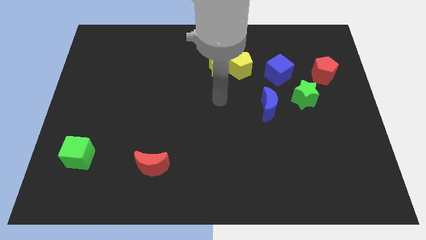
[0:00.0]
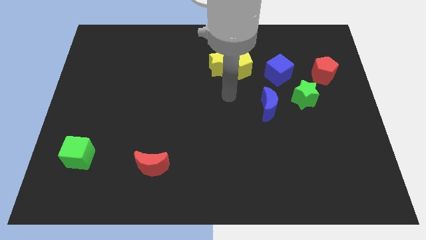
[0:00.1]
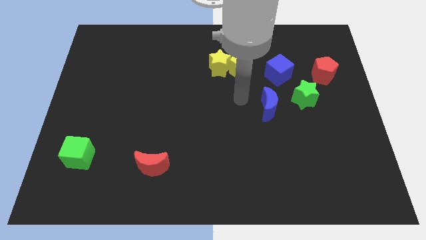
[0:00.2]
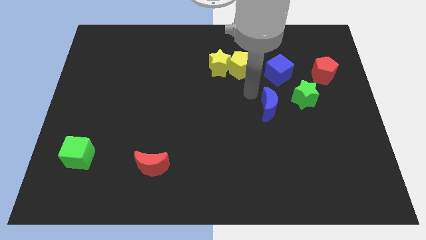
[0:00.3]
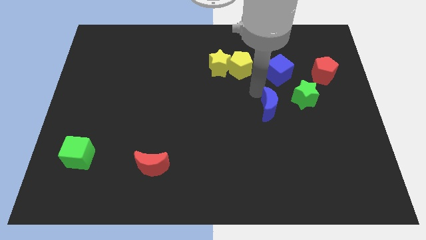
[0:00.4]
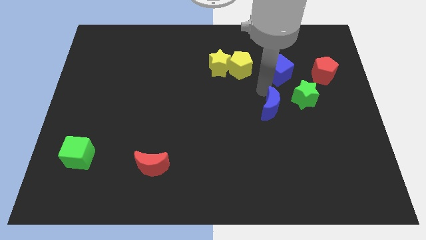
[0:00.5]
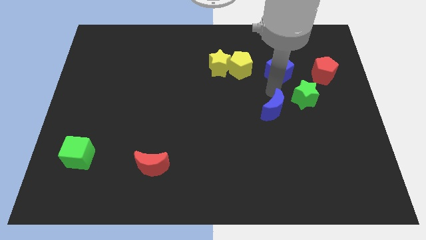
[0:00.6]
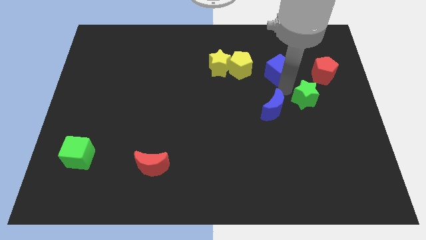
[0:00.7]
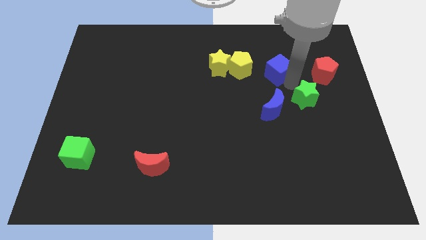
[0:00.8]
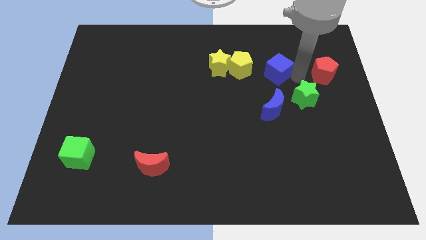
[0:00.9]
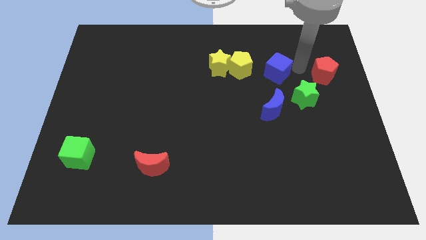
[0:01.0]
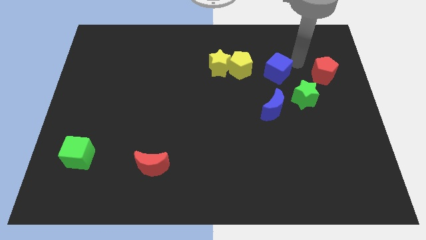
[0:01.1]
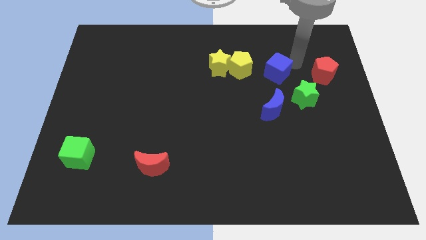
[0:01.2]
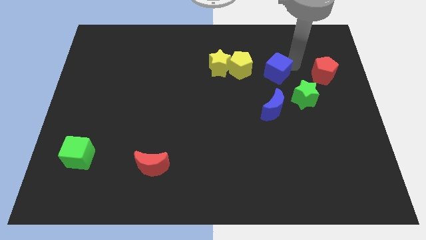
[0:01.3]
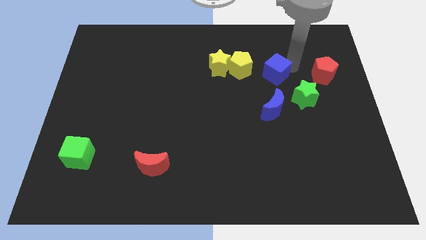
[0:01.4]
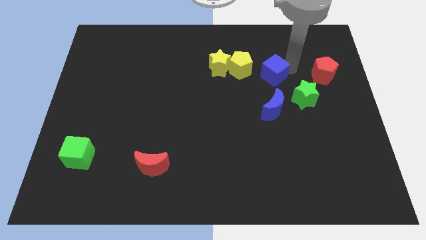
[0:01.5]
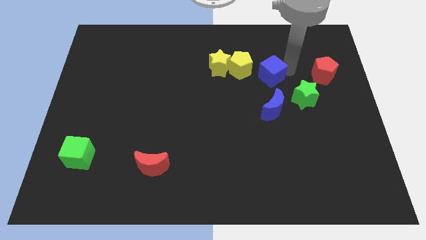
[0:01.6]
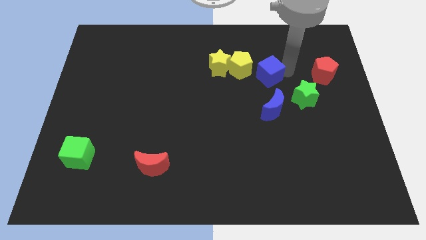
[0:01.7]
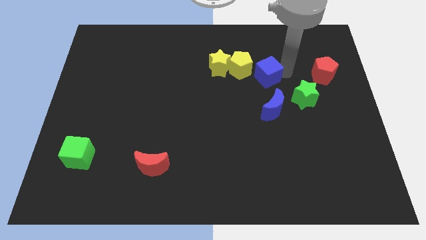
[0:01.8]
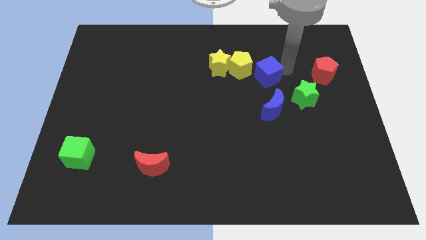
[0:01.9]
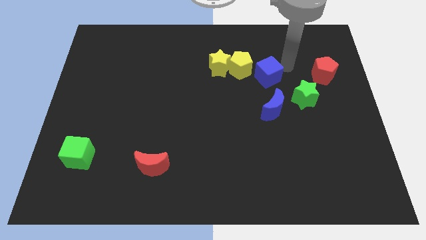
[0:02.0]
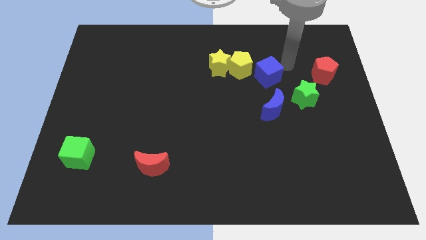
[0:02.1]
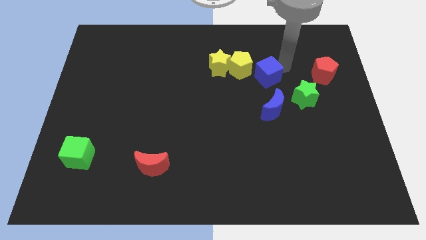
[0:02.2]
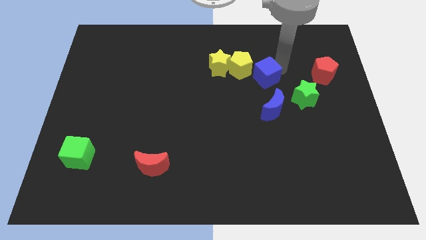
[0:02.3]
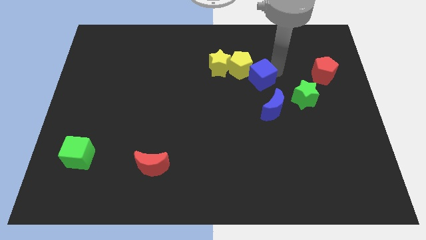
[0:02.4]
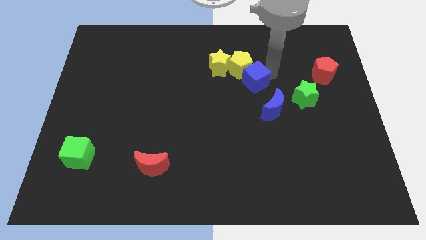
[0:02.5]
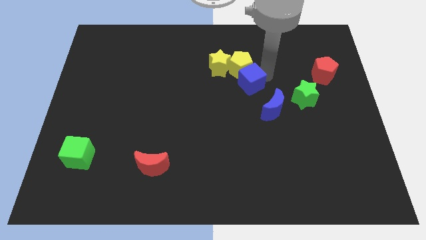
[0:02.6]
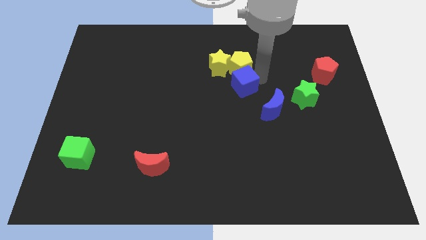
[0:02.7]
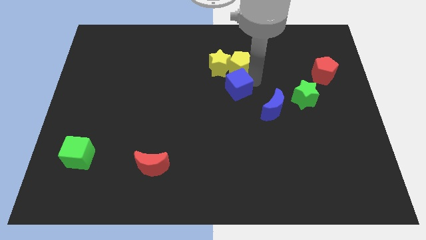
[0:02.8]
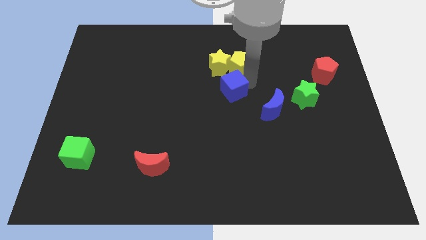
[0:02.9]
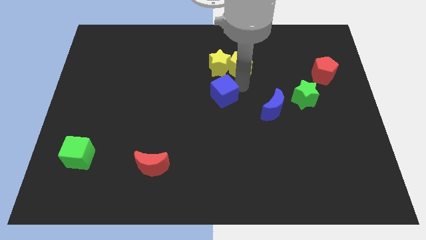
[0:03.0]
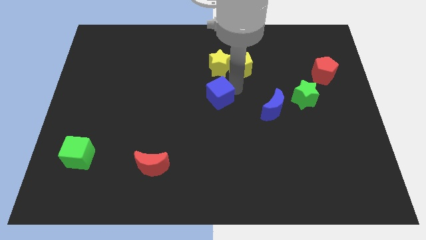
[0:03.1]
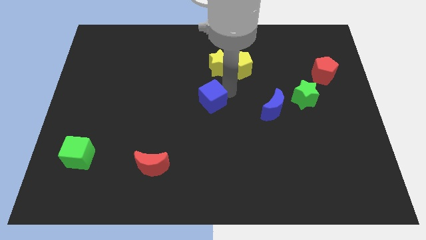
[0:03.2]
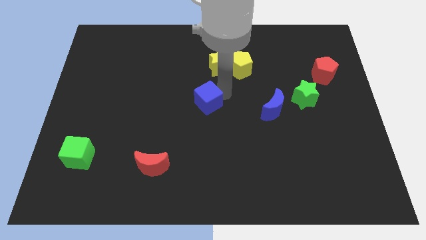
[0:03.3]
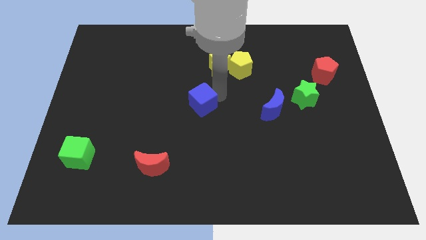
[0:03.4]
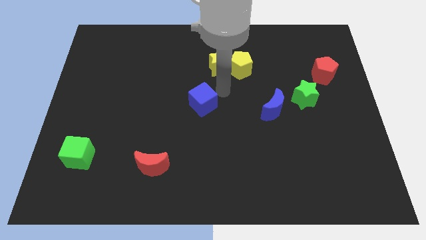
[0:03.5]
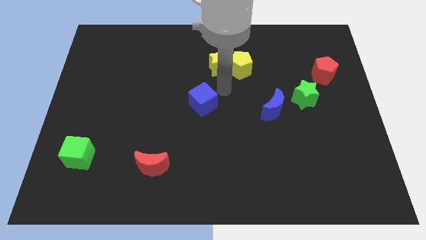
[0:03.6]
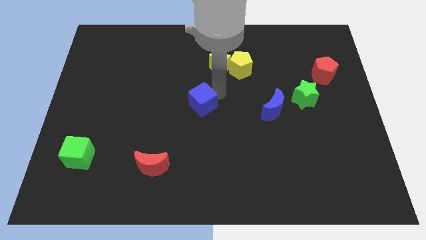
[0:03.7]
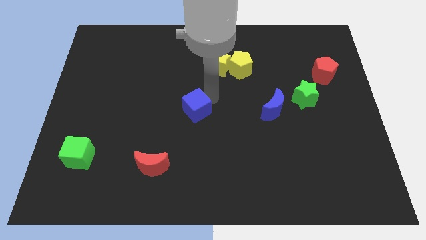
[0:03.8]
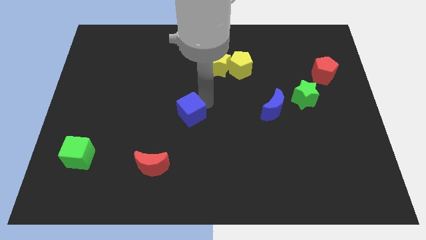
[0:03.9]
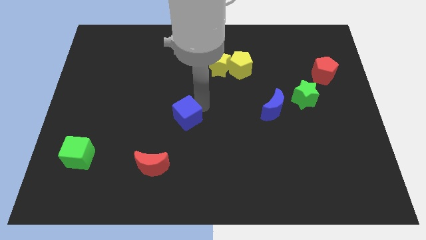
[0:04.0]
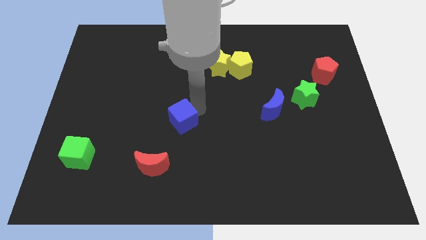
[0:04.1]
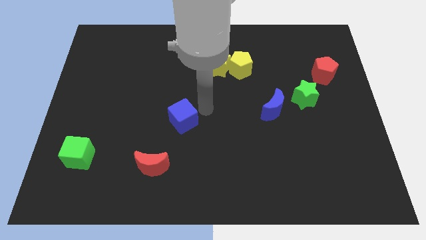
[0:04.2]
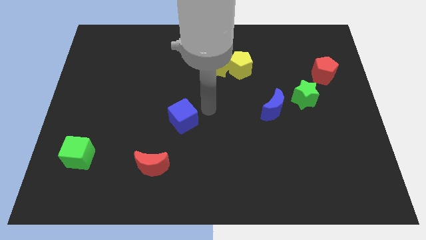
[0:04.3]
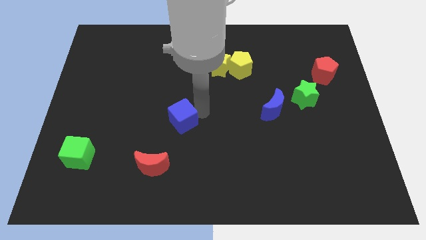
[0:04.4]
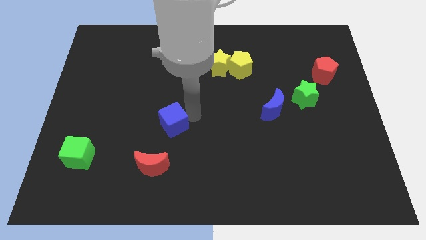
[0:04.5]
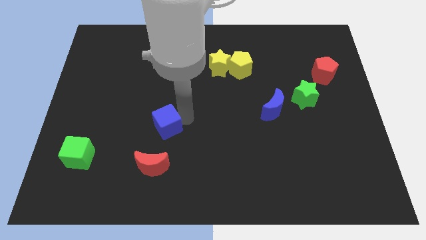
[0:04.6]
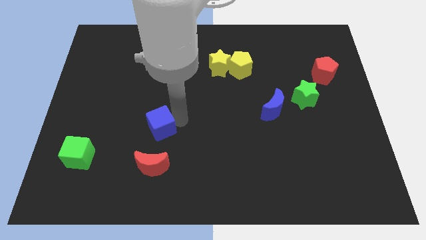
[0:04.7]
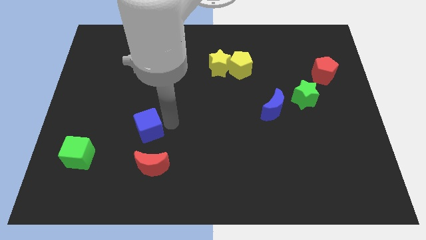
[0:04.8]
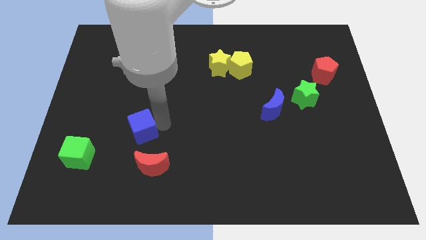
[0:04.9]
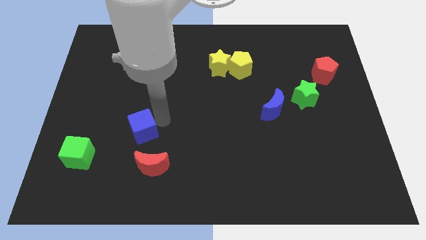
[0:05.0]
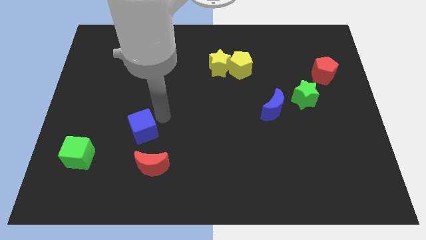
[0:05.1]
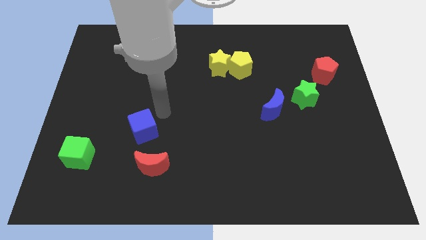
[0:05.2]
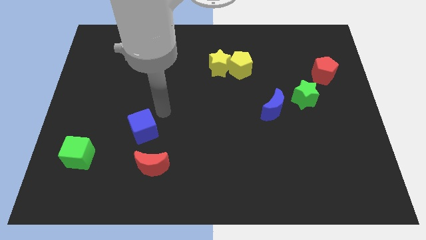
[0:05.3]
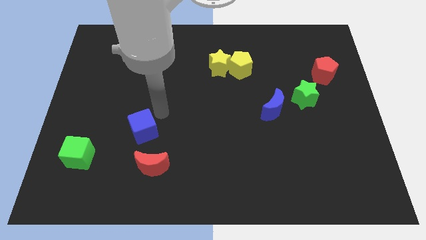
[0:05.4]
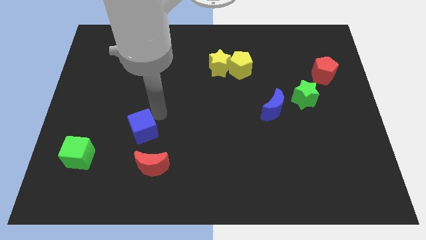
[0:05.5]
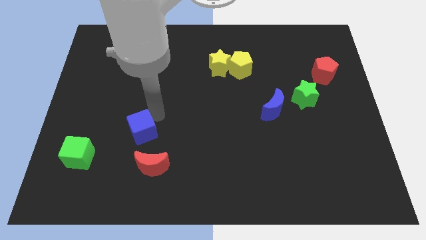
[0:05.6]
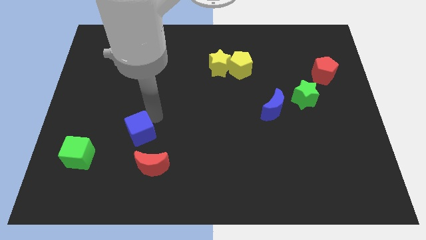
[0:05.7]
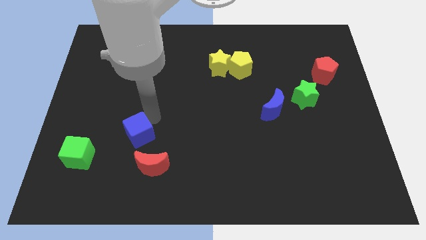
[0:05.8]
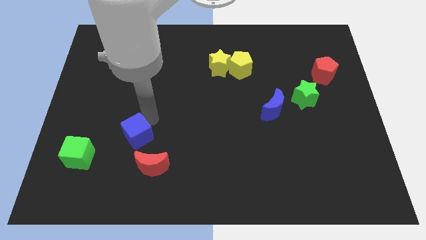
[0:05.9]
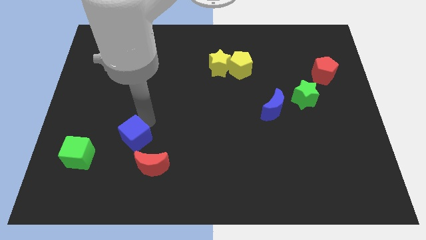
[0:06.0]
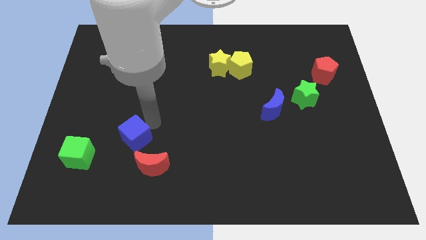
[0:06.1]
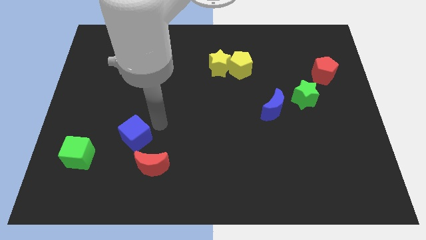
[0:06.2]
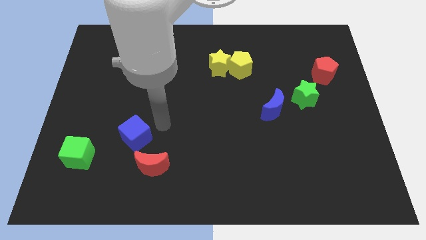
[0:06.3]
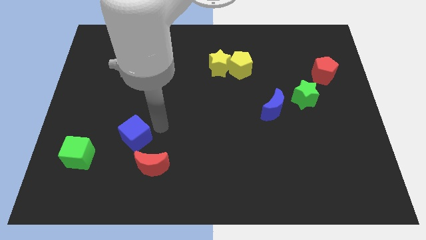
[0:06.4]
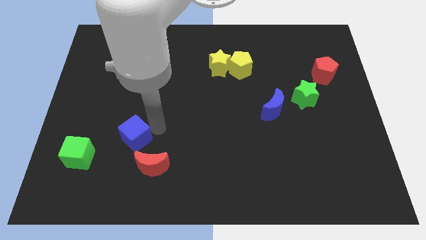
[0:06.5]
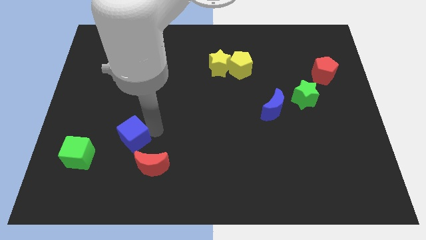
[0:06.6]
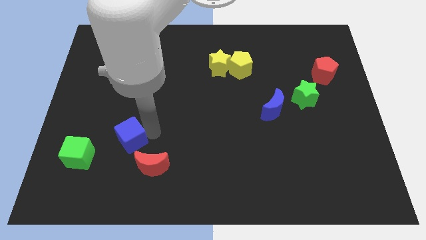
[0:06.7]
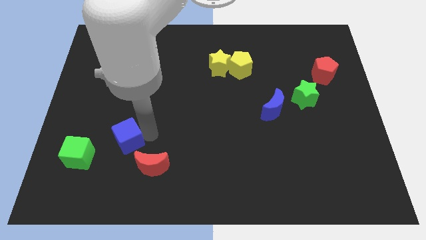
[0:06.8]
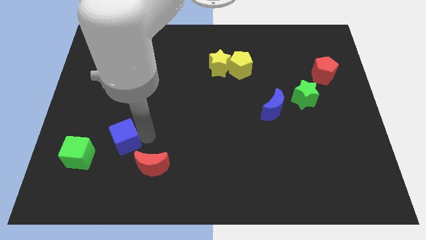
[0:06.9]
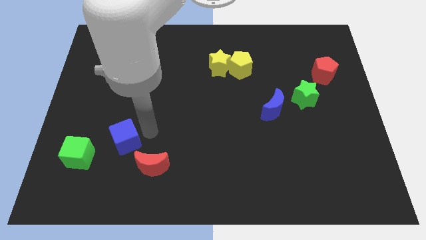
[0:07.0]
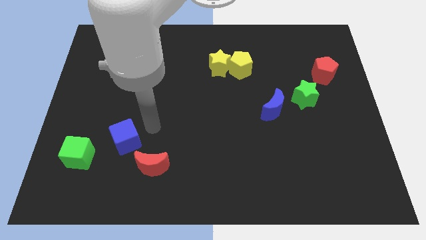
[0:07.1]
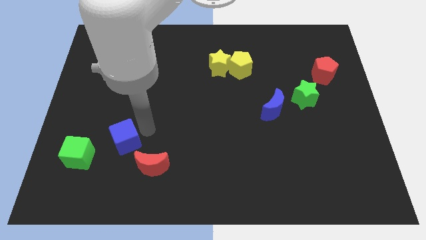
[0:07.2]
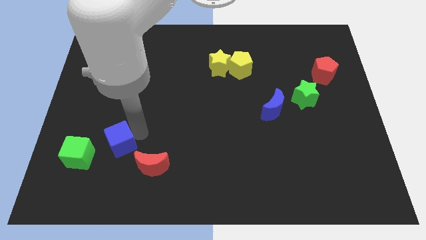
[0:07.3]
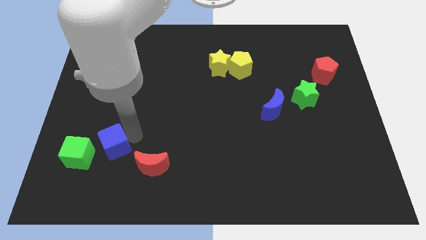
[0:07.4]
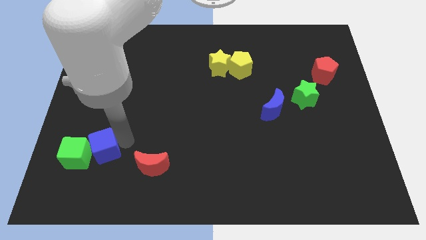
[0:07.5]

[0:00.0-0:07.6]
put the blue cube towards the green cube
